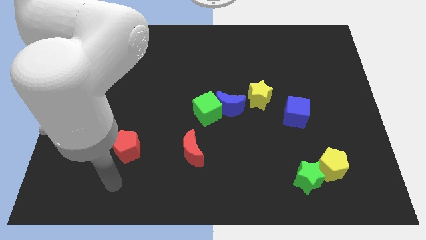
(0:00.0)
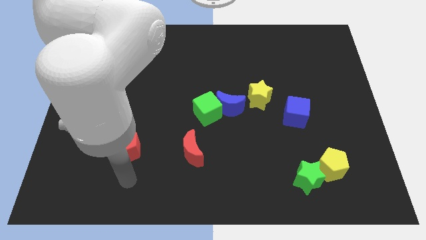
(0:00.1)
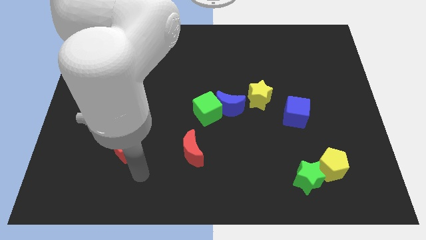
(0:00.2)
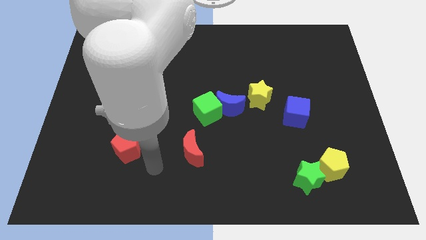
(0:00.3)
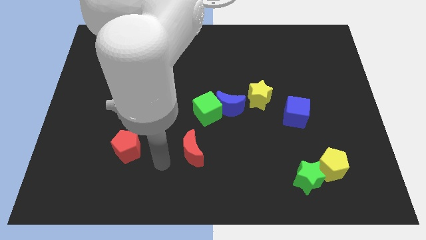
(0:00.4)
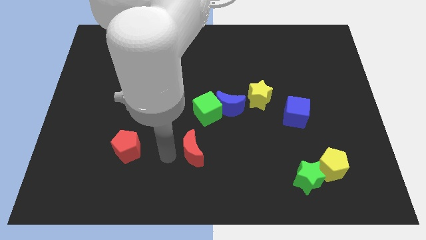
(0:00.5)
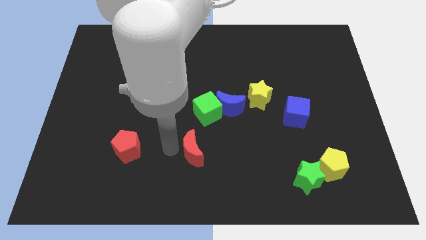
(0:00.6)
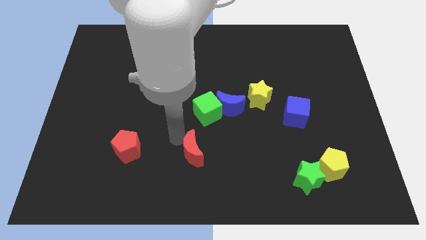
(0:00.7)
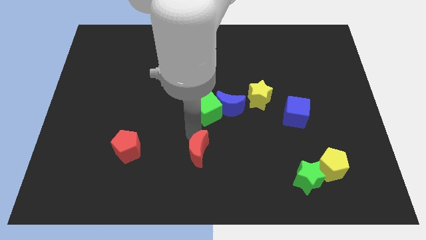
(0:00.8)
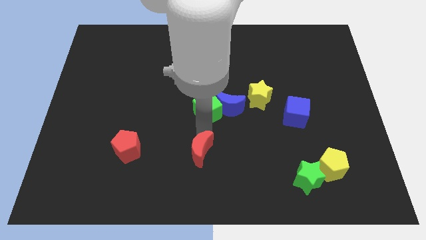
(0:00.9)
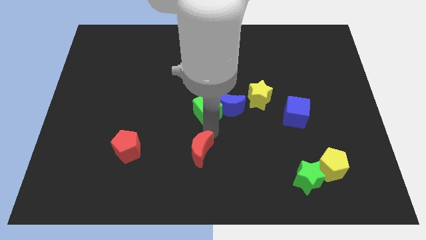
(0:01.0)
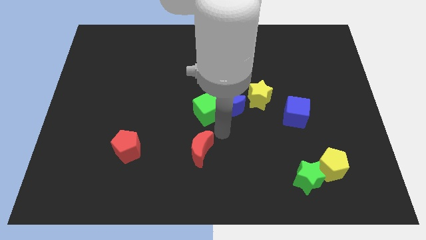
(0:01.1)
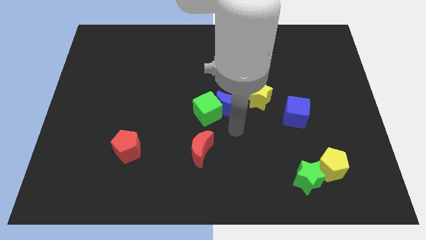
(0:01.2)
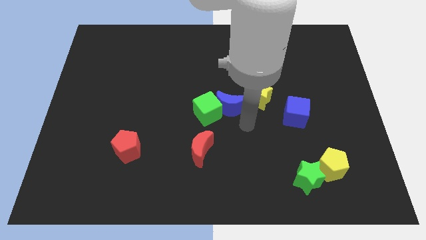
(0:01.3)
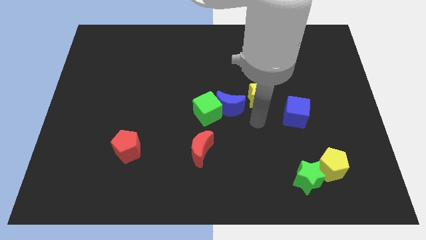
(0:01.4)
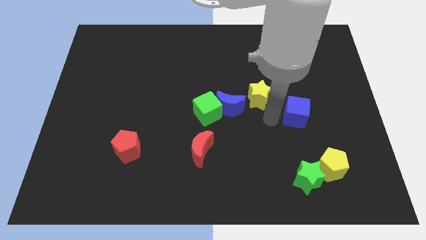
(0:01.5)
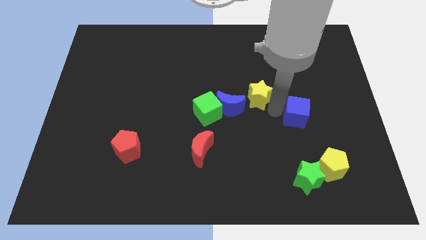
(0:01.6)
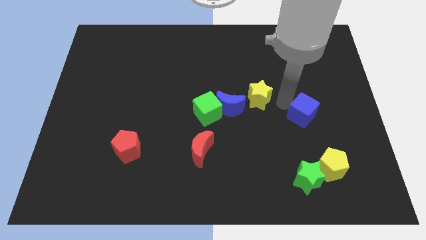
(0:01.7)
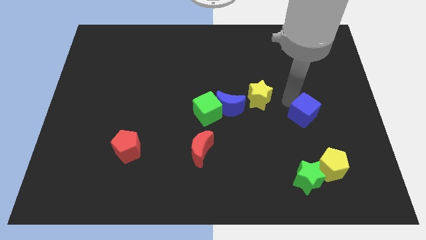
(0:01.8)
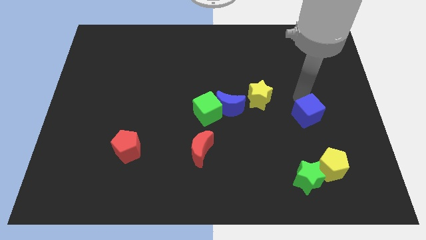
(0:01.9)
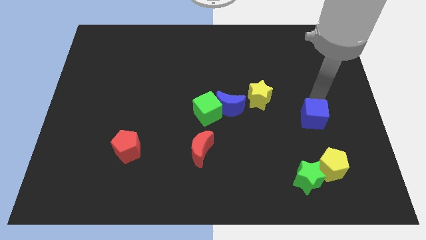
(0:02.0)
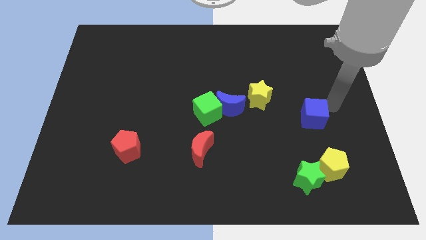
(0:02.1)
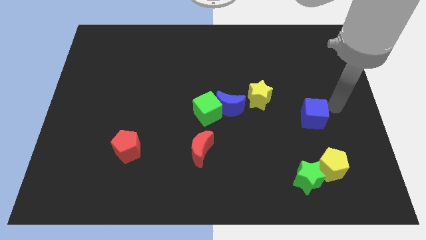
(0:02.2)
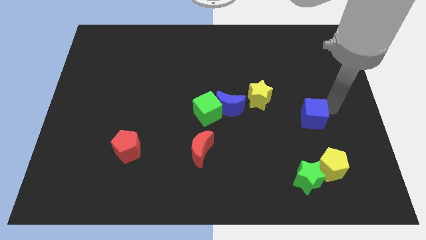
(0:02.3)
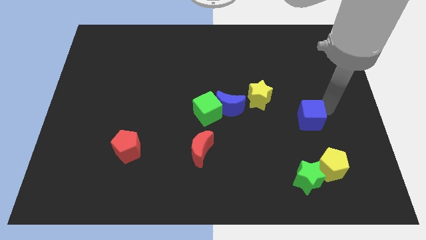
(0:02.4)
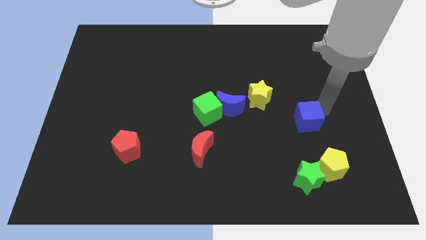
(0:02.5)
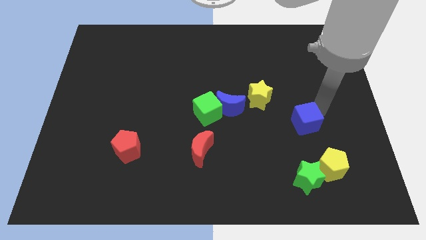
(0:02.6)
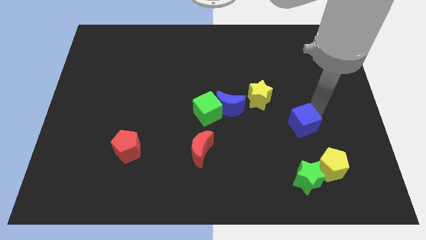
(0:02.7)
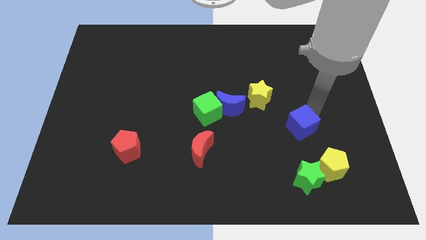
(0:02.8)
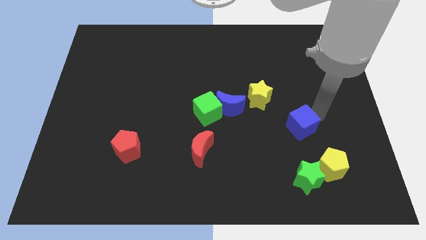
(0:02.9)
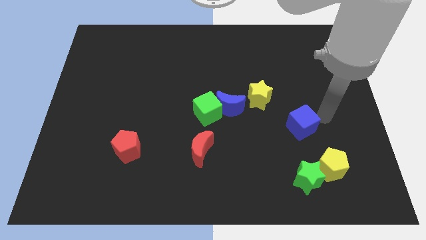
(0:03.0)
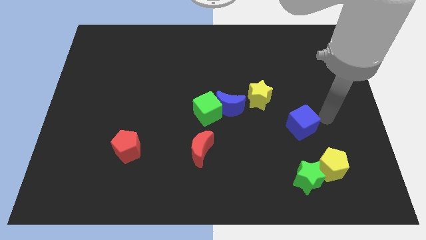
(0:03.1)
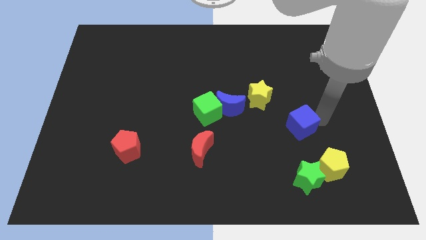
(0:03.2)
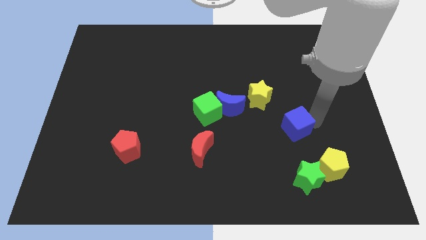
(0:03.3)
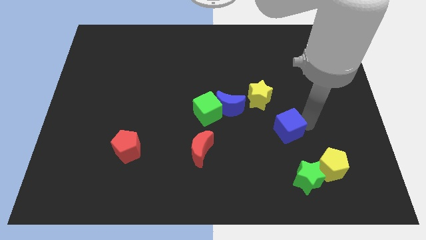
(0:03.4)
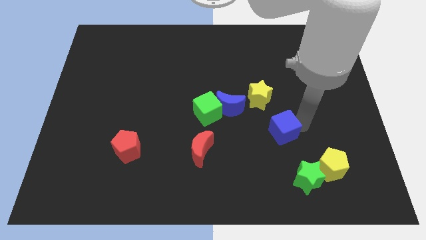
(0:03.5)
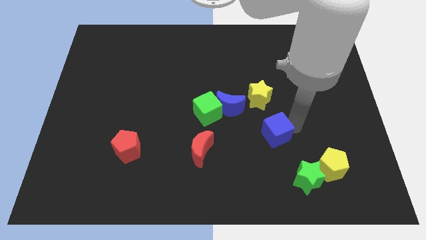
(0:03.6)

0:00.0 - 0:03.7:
move the blue cube downwards and then to the left slightly

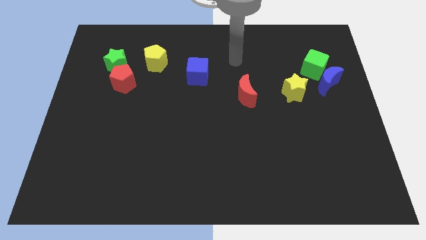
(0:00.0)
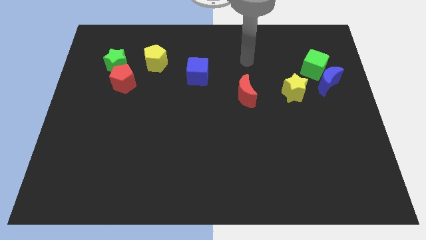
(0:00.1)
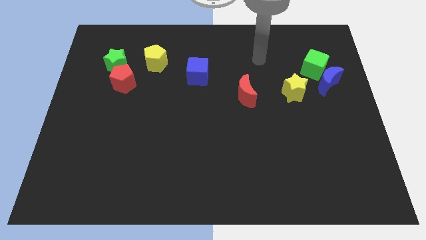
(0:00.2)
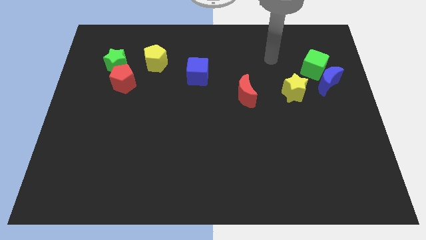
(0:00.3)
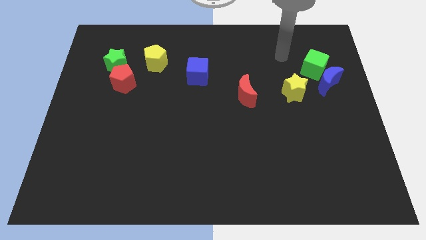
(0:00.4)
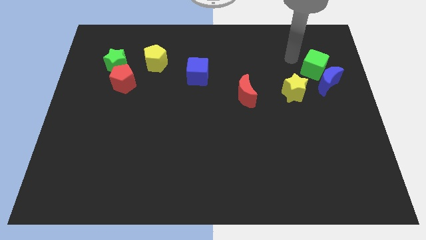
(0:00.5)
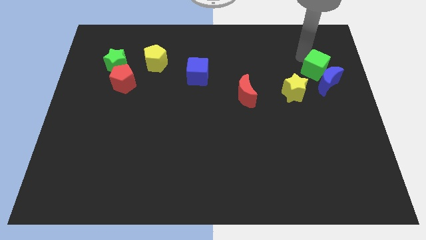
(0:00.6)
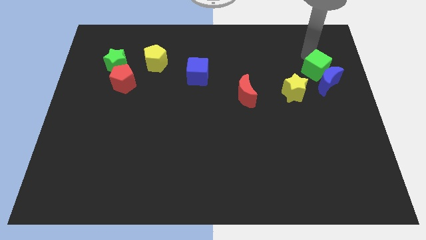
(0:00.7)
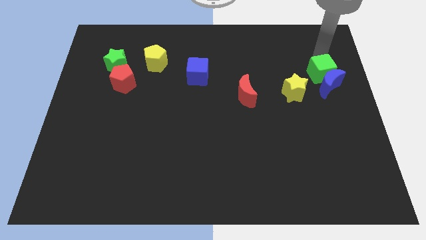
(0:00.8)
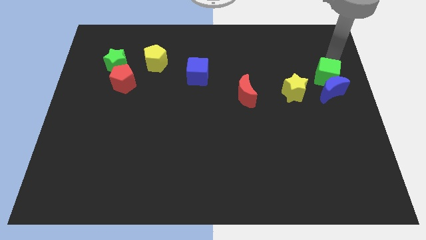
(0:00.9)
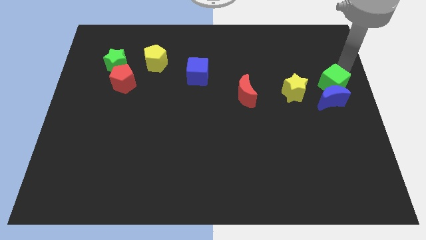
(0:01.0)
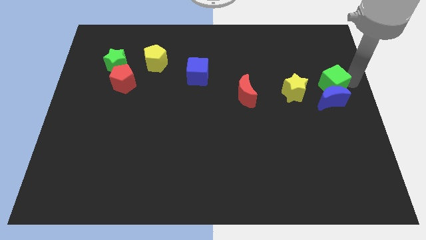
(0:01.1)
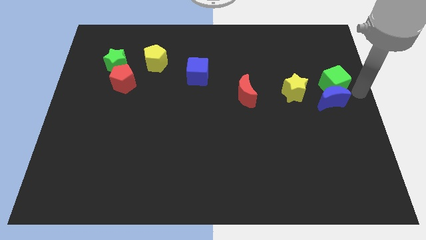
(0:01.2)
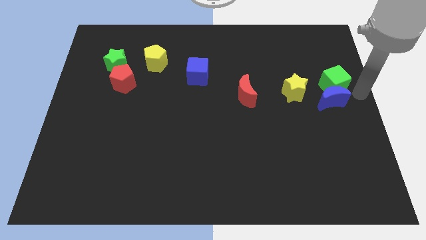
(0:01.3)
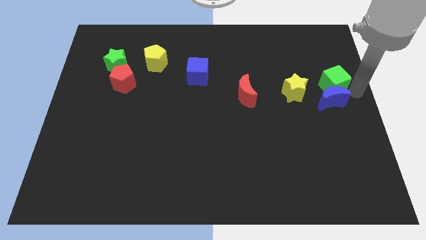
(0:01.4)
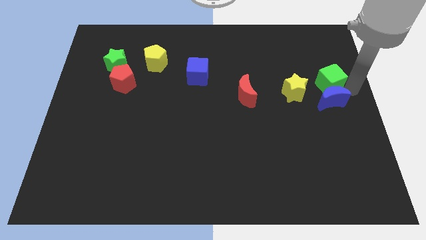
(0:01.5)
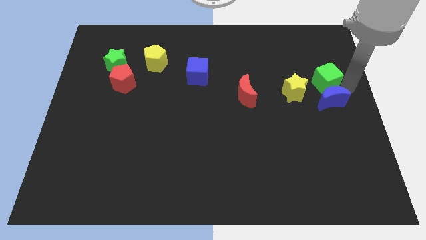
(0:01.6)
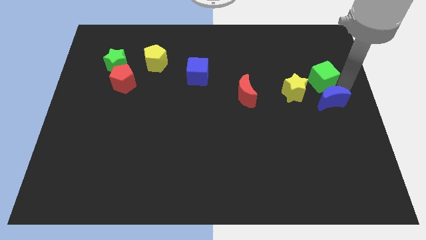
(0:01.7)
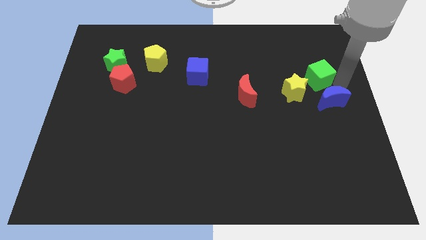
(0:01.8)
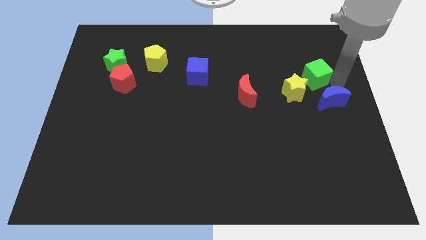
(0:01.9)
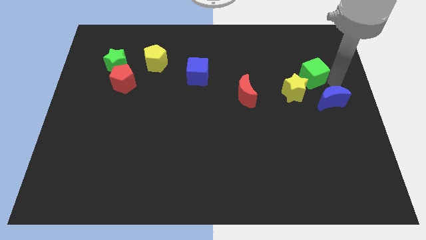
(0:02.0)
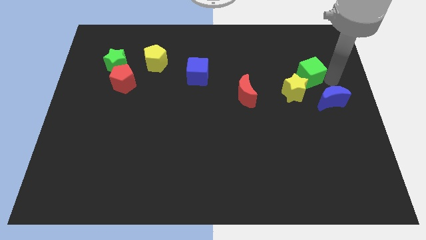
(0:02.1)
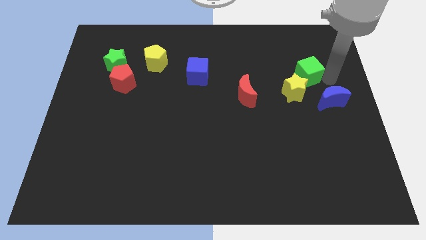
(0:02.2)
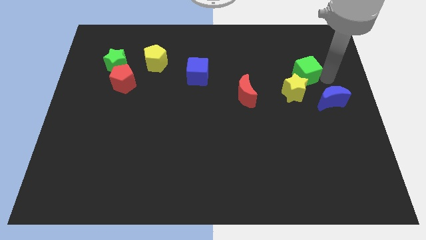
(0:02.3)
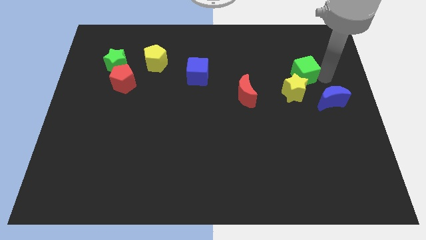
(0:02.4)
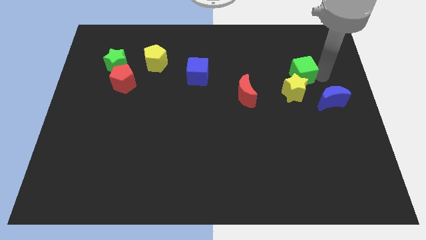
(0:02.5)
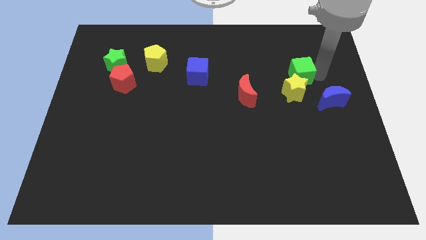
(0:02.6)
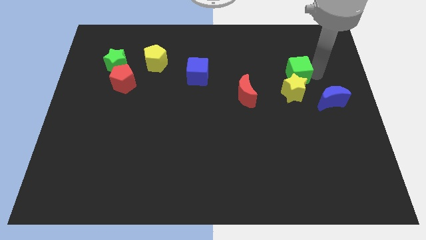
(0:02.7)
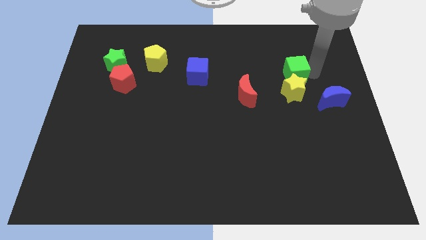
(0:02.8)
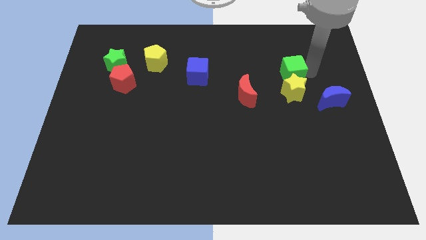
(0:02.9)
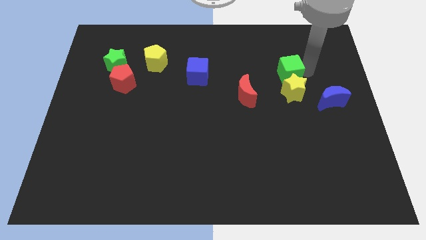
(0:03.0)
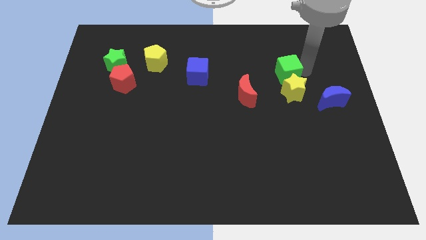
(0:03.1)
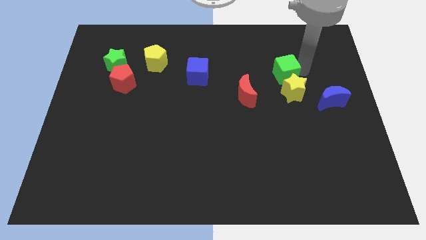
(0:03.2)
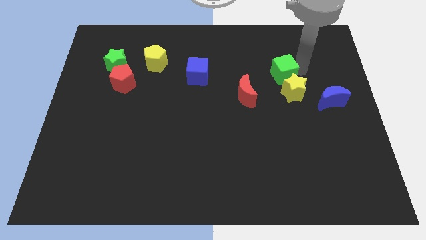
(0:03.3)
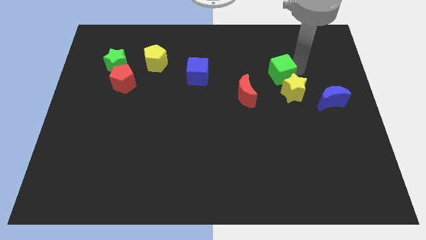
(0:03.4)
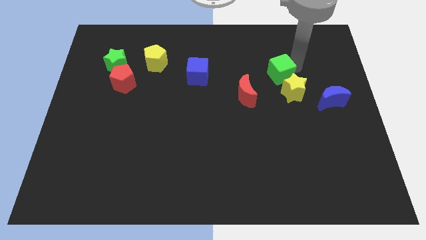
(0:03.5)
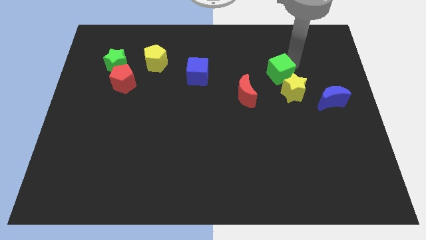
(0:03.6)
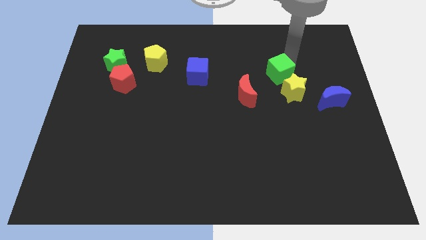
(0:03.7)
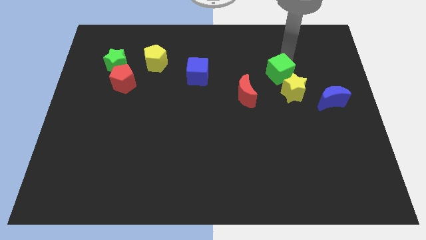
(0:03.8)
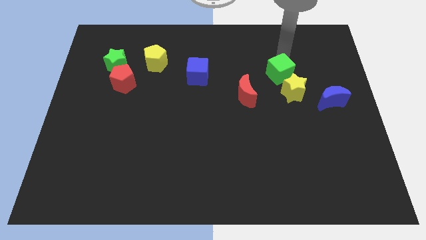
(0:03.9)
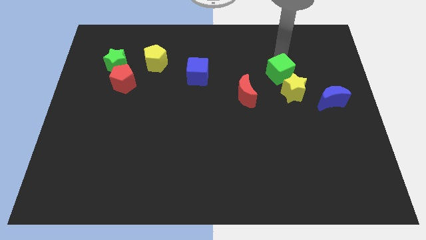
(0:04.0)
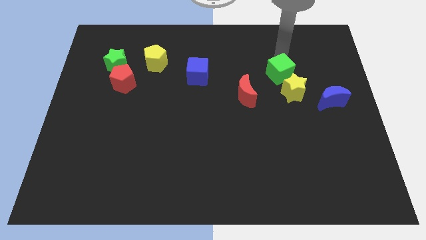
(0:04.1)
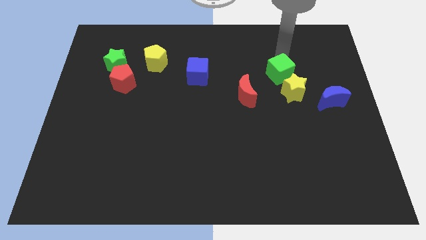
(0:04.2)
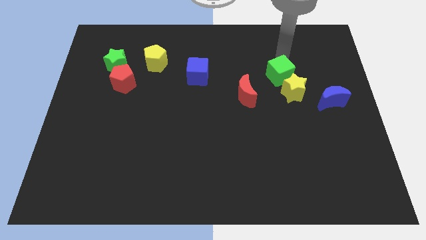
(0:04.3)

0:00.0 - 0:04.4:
slide the green cube diagonally down and to the left a bit
